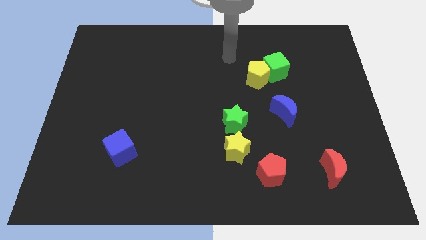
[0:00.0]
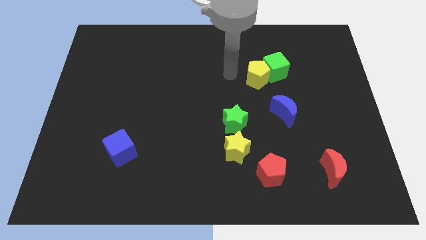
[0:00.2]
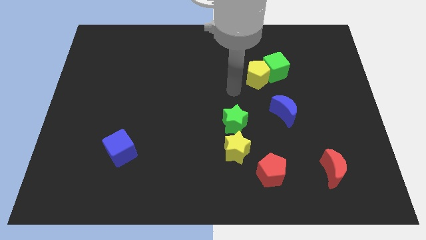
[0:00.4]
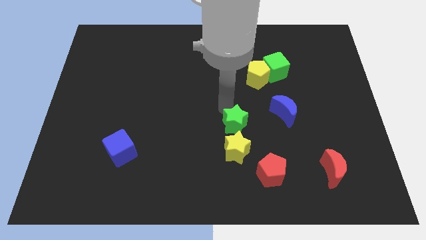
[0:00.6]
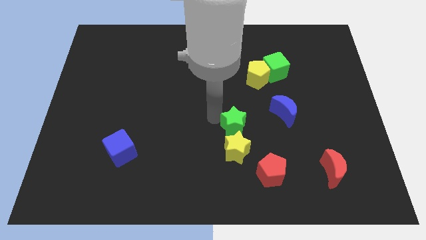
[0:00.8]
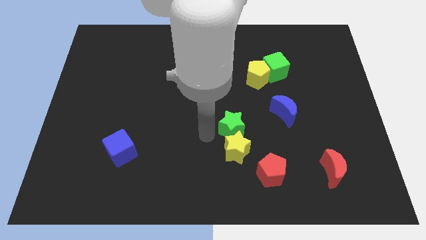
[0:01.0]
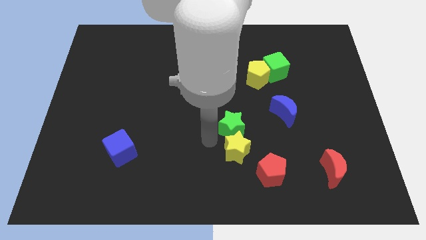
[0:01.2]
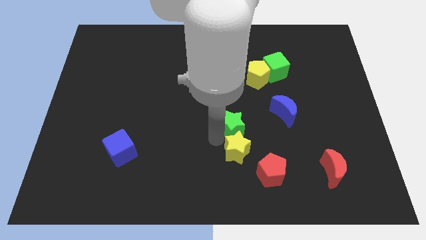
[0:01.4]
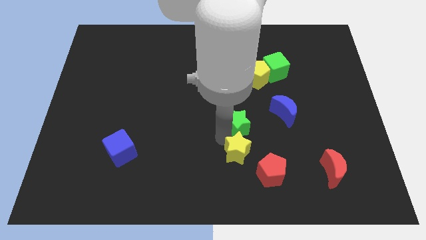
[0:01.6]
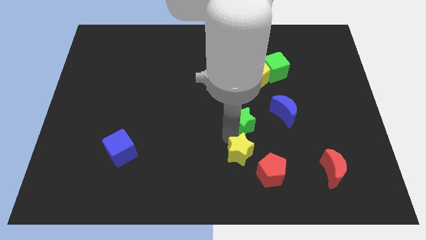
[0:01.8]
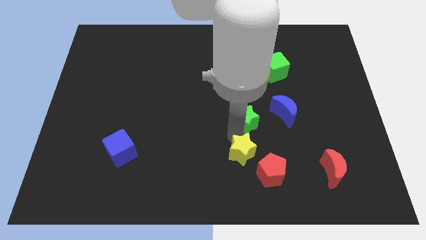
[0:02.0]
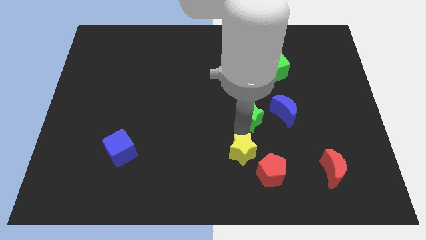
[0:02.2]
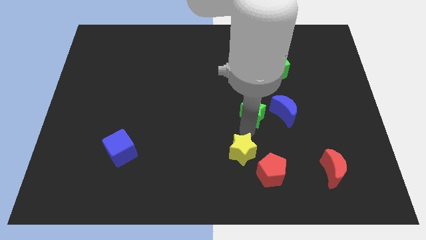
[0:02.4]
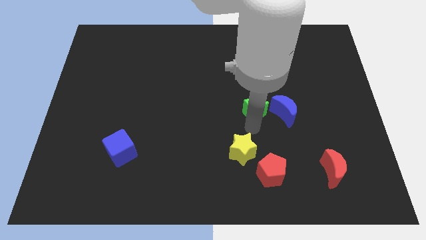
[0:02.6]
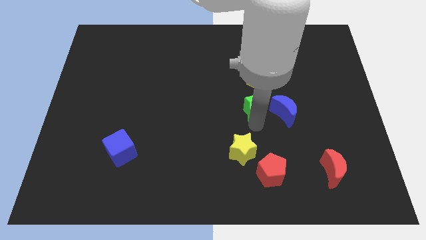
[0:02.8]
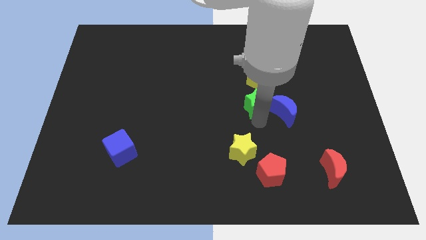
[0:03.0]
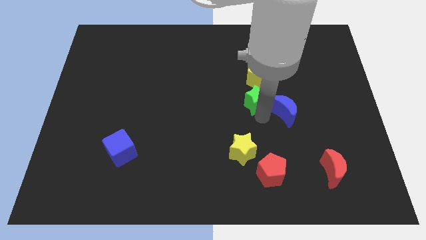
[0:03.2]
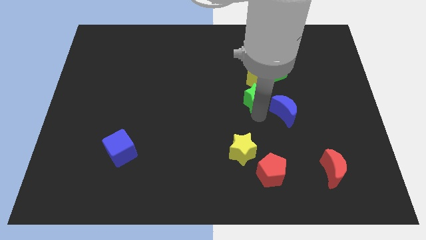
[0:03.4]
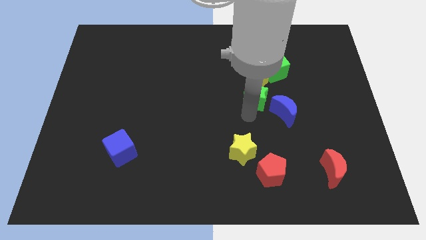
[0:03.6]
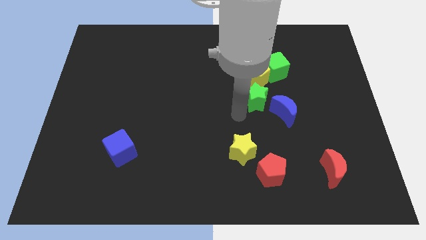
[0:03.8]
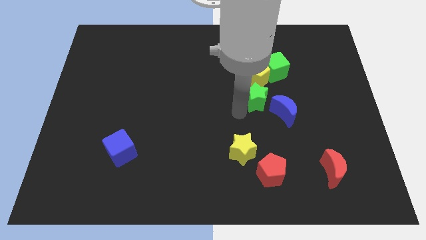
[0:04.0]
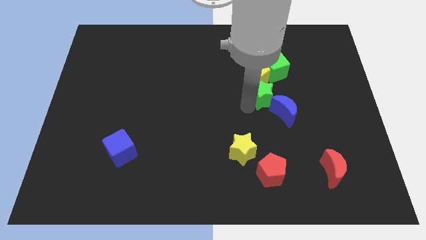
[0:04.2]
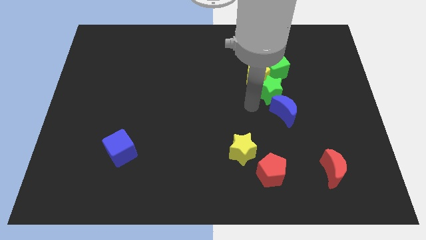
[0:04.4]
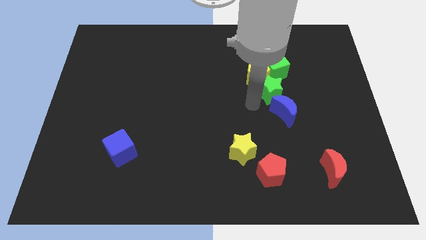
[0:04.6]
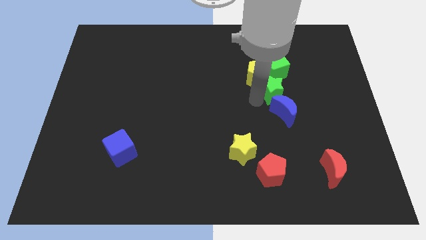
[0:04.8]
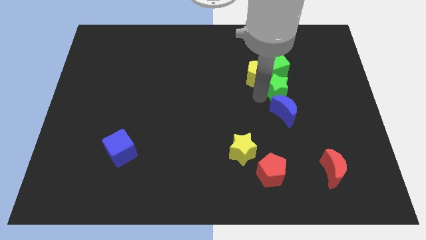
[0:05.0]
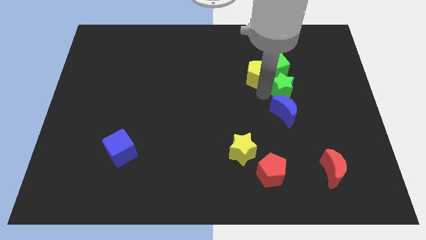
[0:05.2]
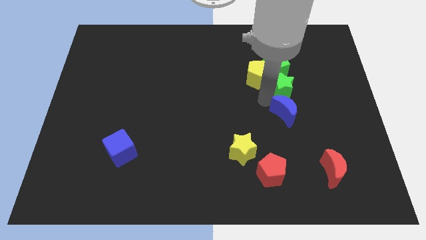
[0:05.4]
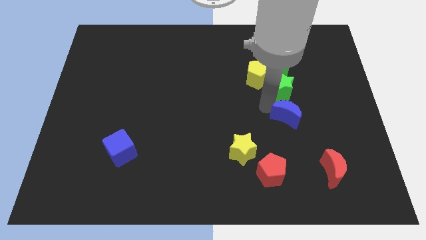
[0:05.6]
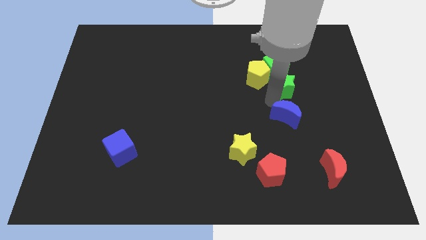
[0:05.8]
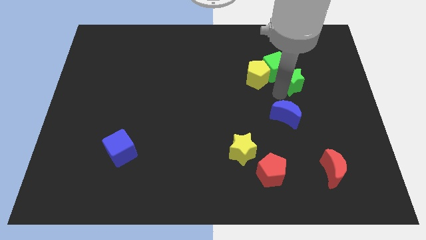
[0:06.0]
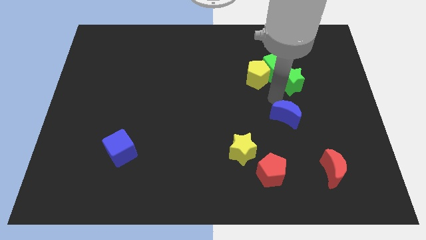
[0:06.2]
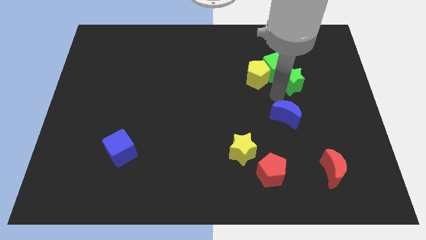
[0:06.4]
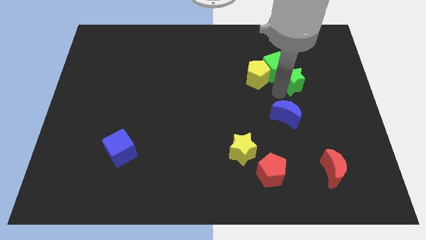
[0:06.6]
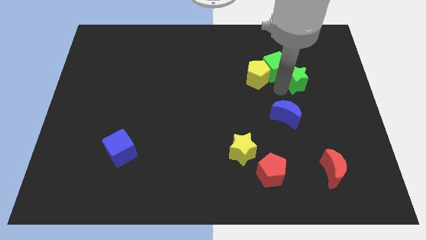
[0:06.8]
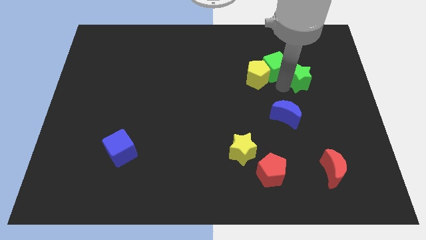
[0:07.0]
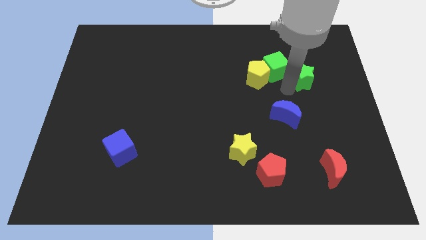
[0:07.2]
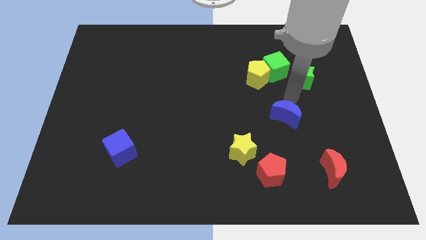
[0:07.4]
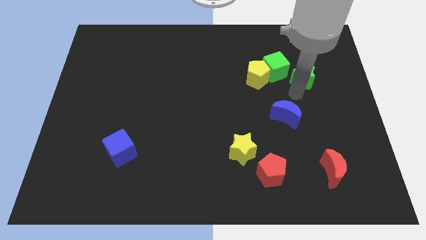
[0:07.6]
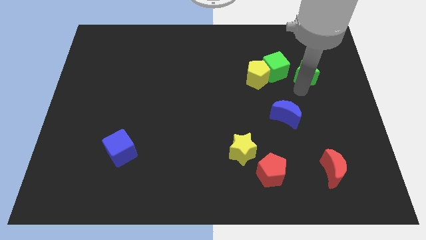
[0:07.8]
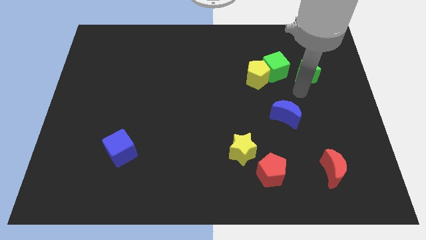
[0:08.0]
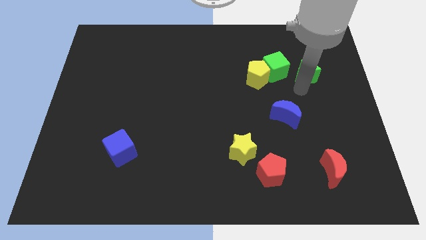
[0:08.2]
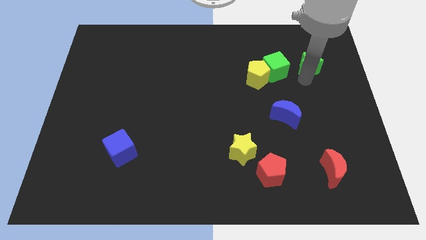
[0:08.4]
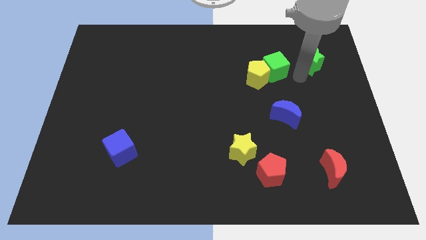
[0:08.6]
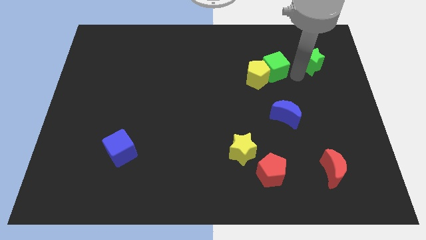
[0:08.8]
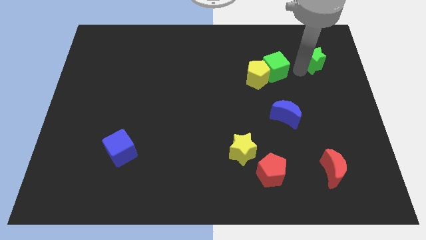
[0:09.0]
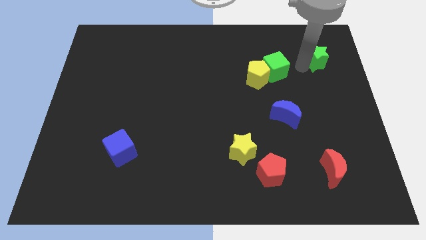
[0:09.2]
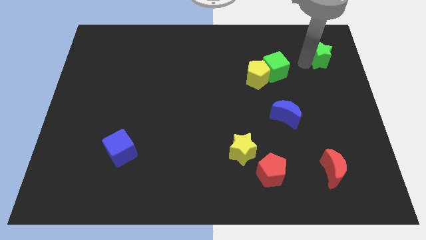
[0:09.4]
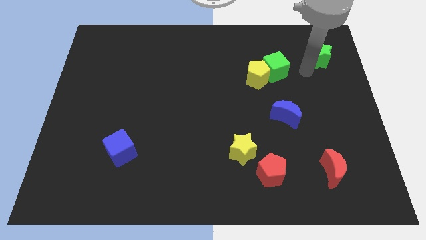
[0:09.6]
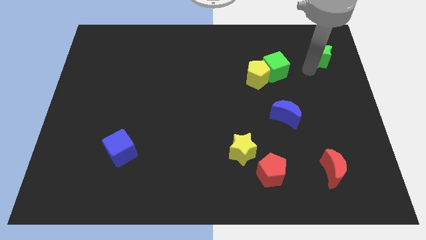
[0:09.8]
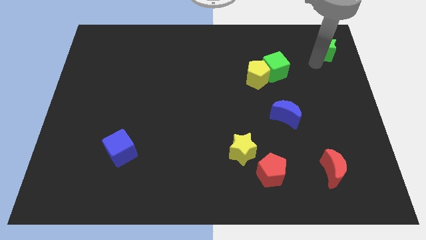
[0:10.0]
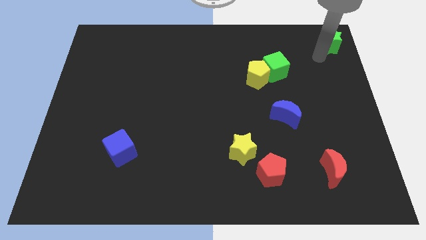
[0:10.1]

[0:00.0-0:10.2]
put the green star to the upper right corner

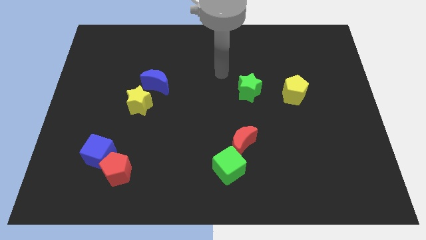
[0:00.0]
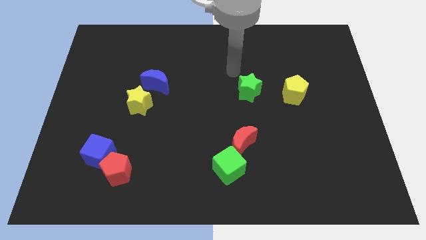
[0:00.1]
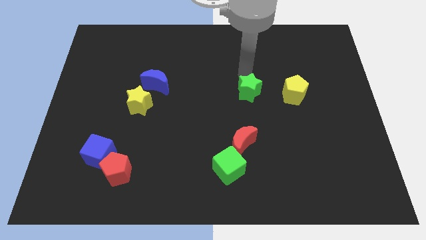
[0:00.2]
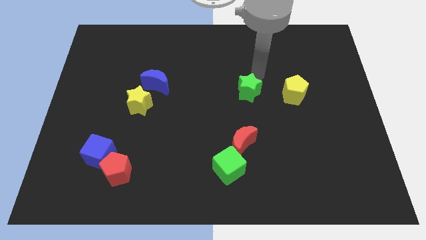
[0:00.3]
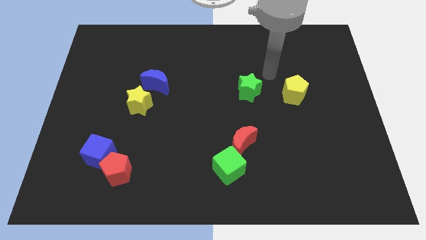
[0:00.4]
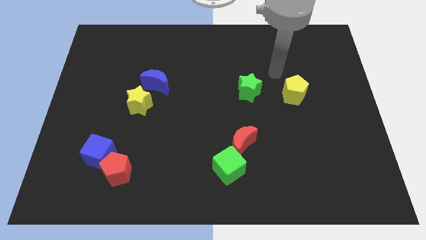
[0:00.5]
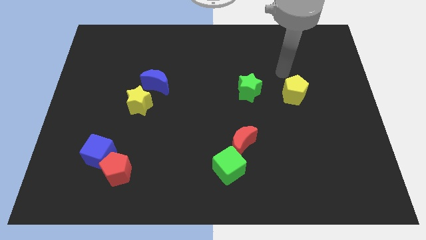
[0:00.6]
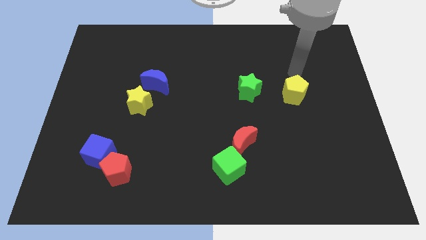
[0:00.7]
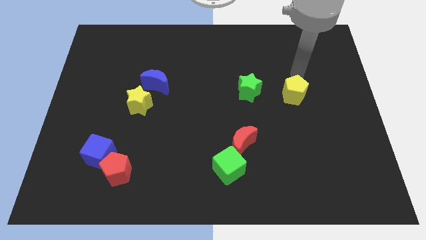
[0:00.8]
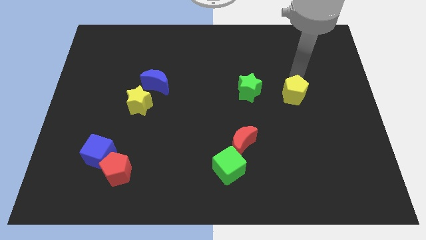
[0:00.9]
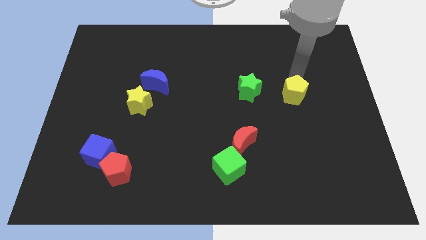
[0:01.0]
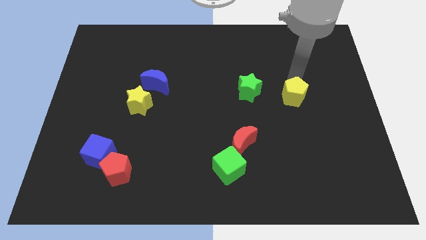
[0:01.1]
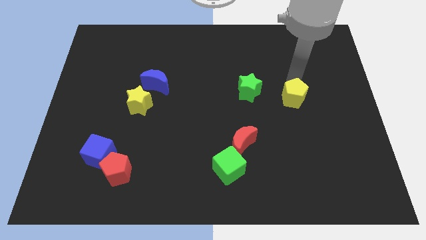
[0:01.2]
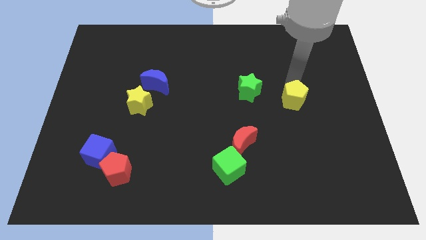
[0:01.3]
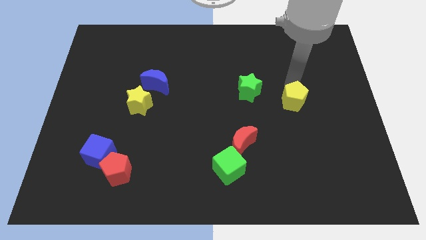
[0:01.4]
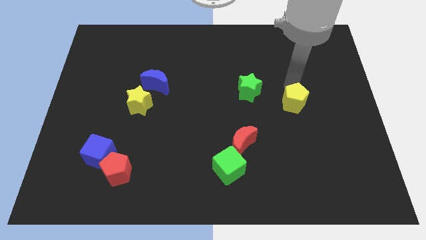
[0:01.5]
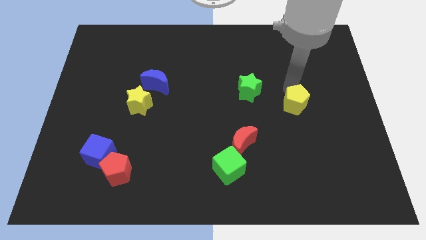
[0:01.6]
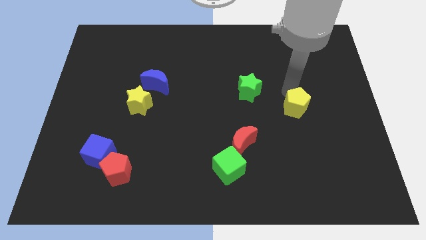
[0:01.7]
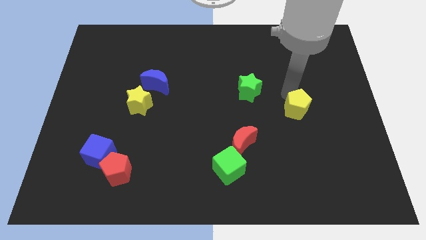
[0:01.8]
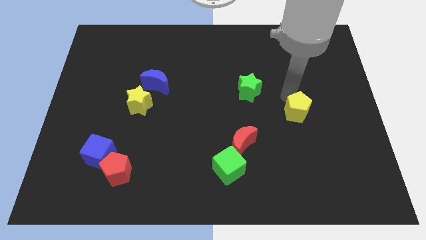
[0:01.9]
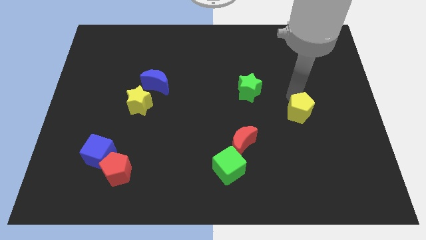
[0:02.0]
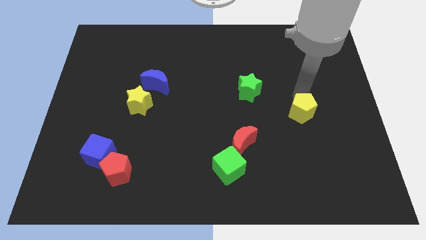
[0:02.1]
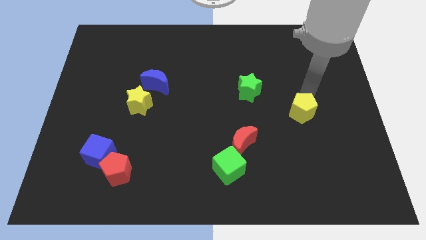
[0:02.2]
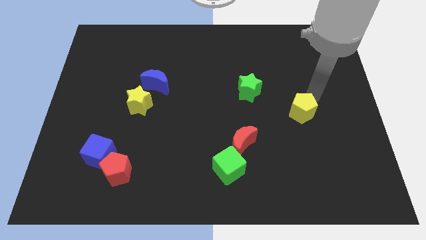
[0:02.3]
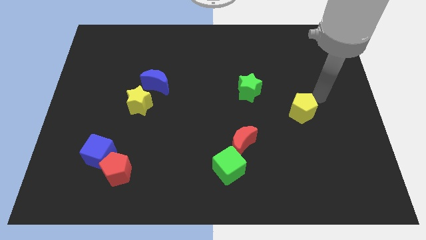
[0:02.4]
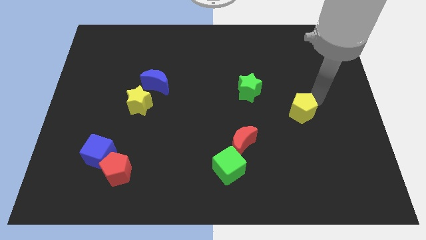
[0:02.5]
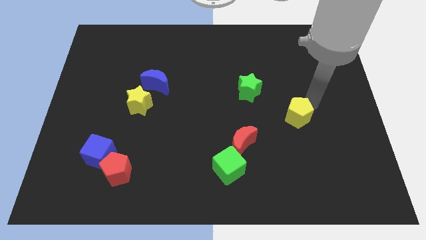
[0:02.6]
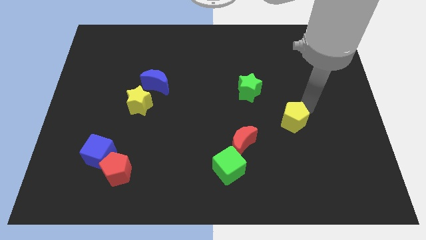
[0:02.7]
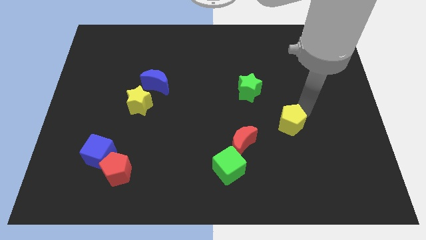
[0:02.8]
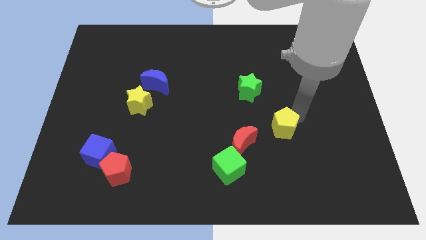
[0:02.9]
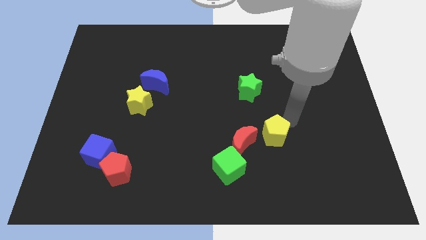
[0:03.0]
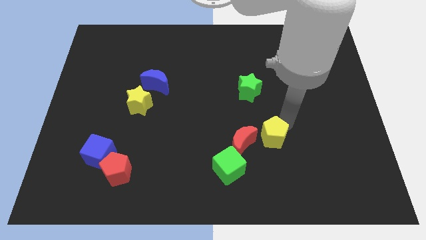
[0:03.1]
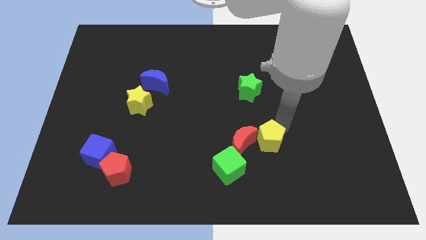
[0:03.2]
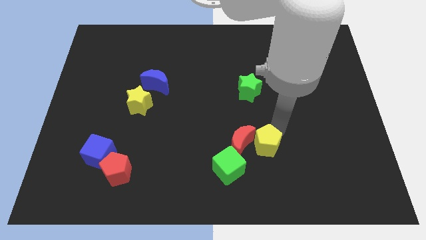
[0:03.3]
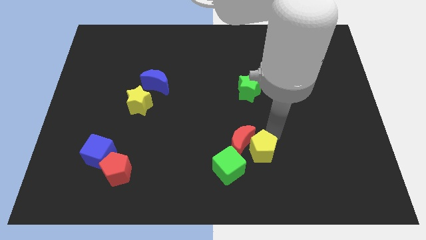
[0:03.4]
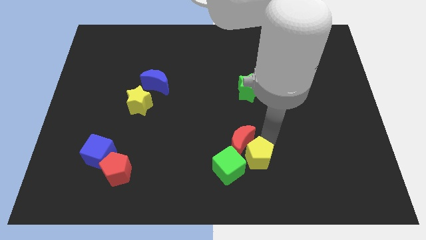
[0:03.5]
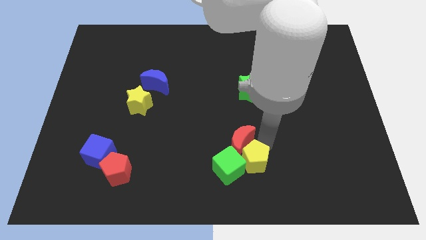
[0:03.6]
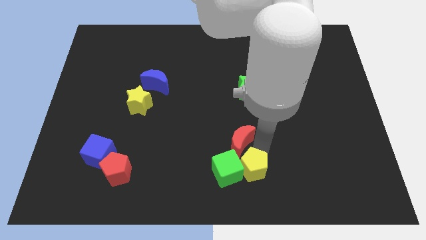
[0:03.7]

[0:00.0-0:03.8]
put the yellow pentagon to the bottom
